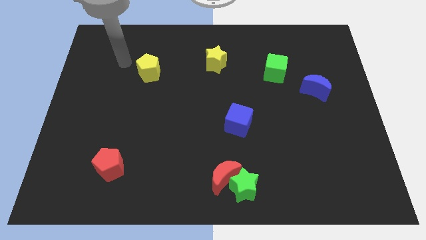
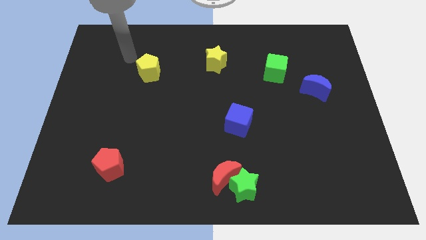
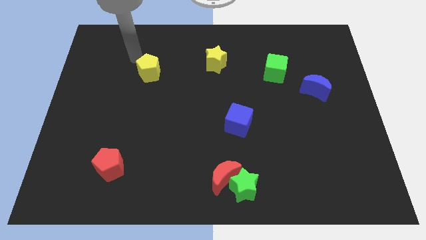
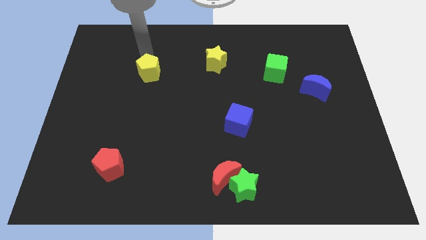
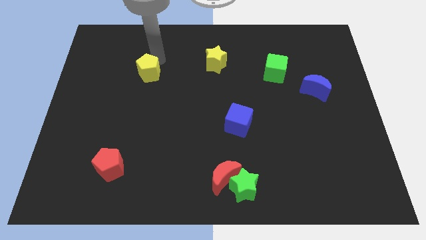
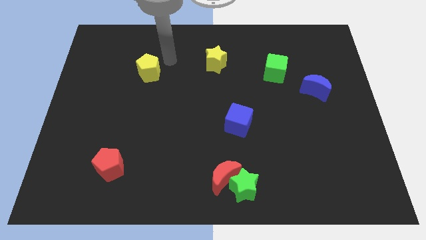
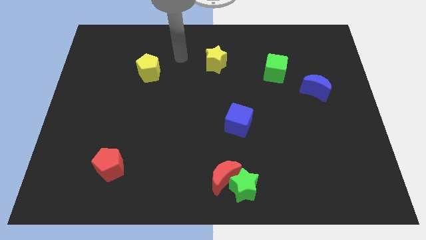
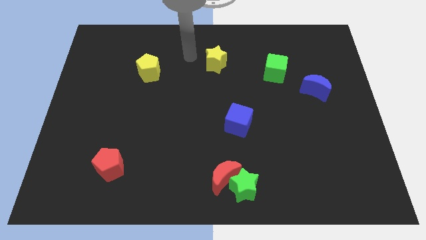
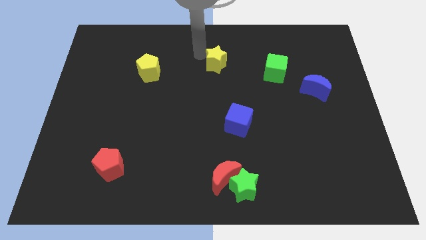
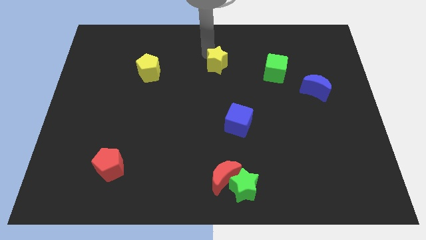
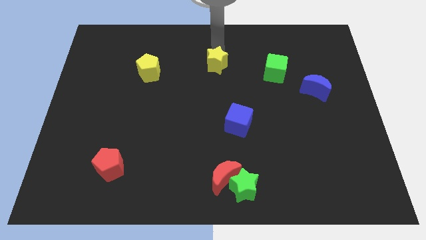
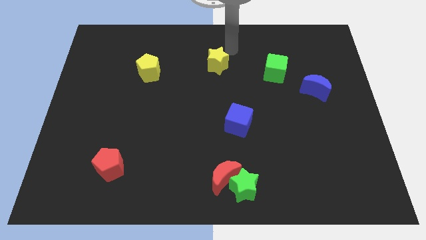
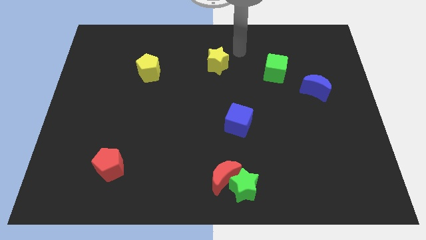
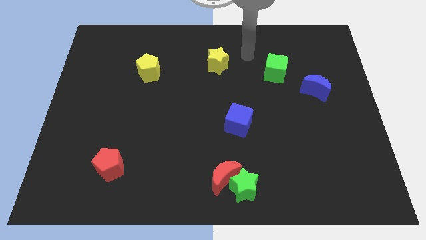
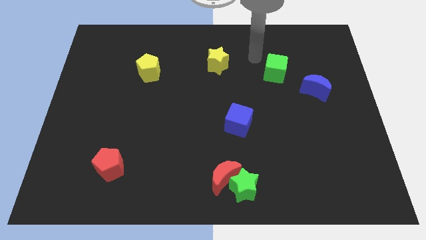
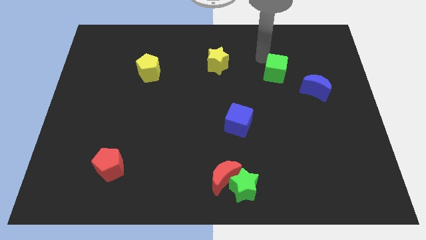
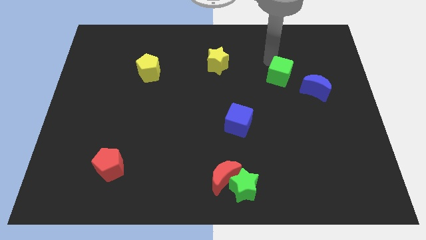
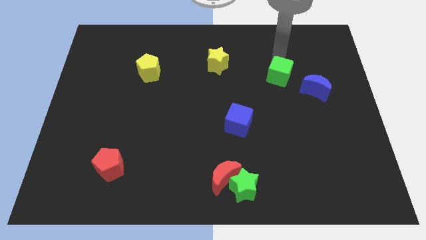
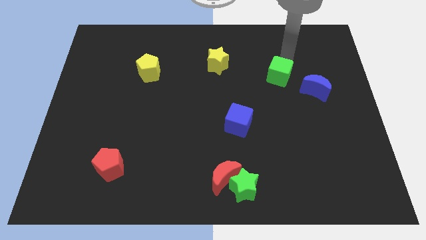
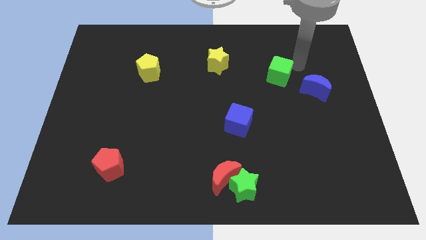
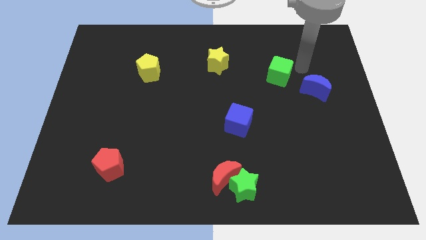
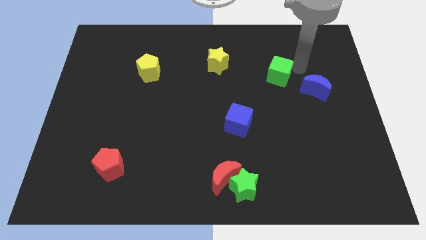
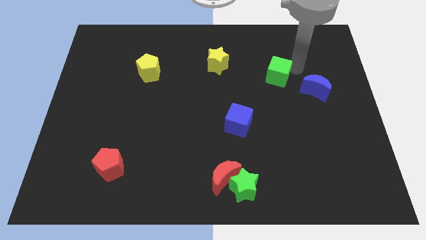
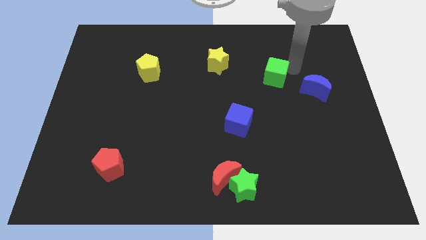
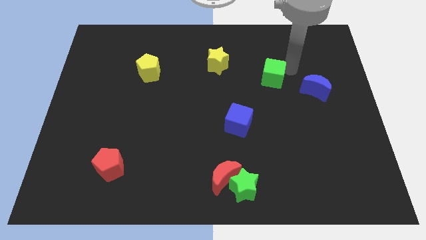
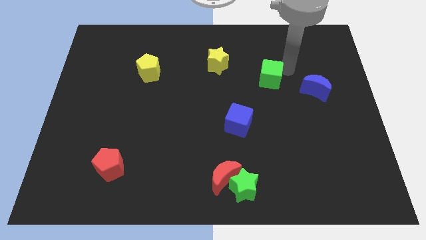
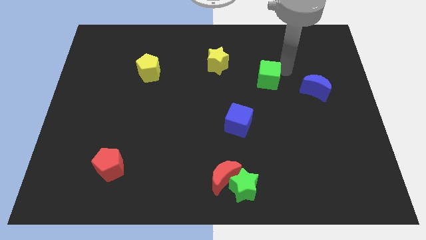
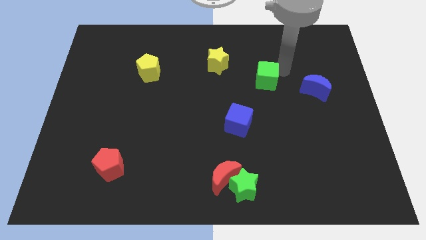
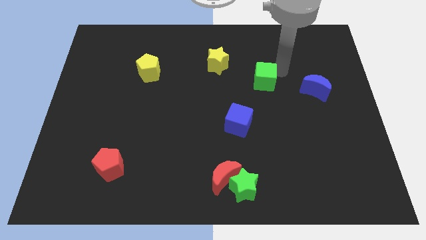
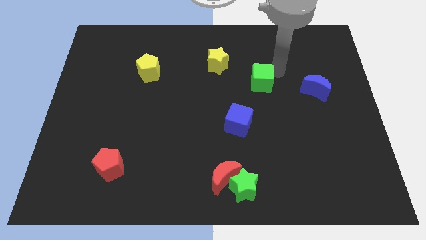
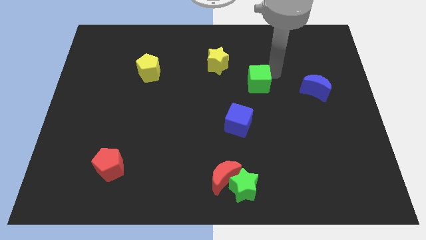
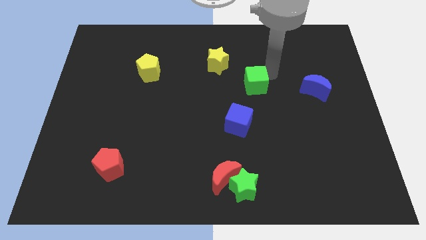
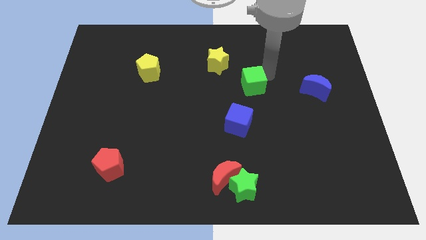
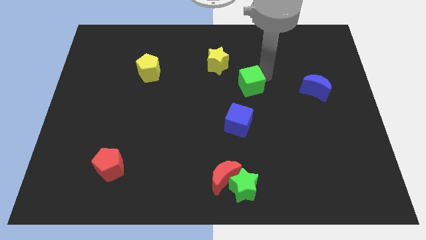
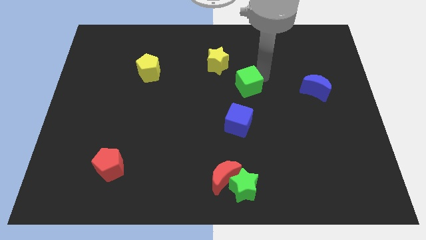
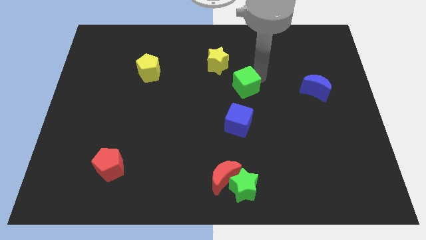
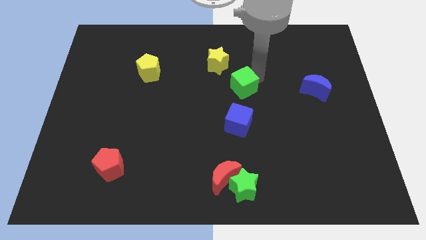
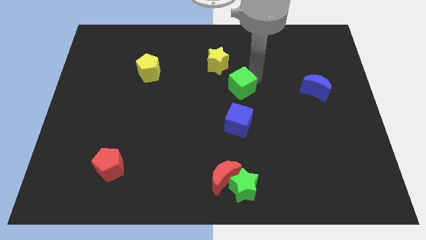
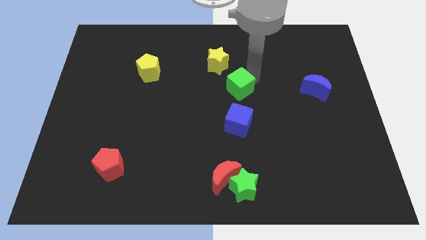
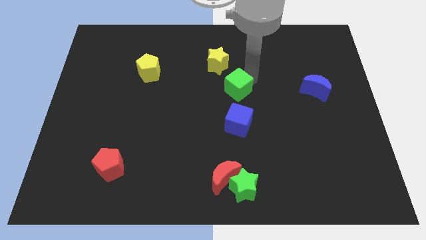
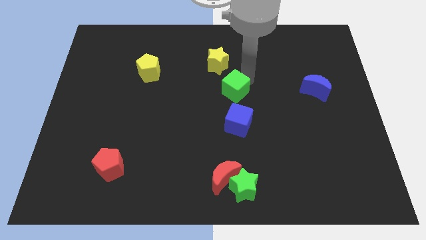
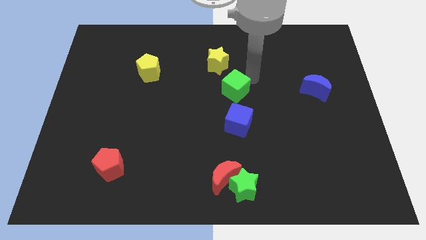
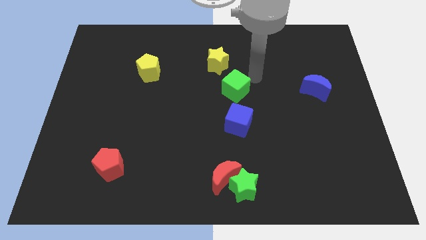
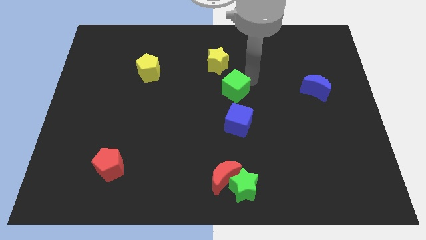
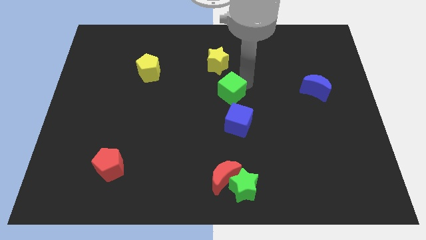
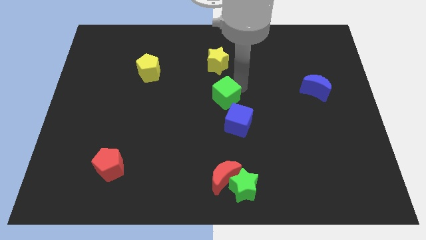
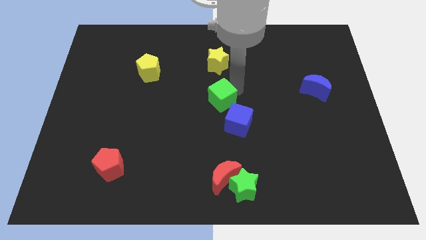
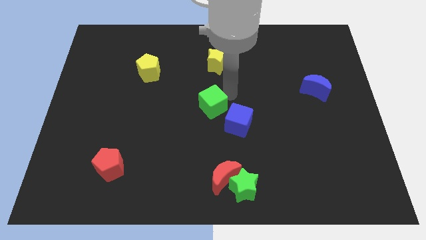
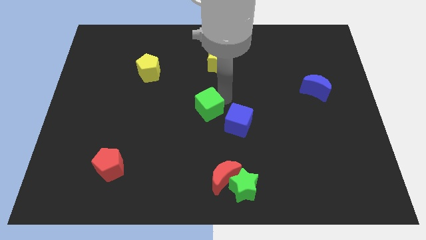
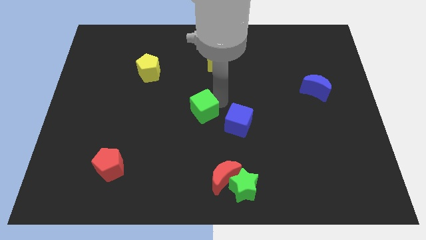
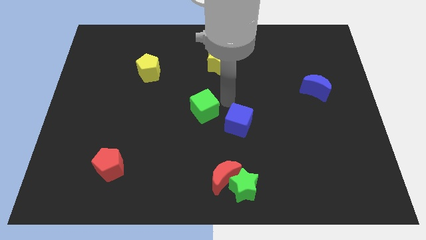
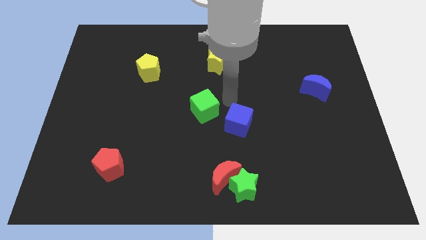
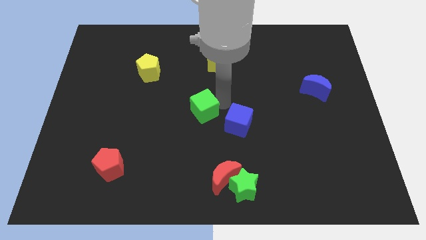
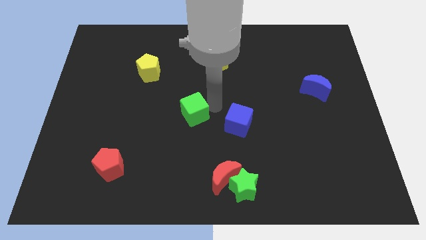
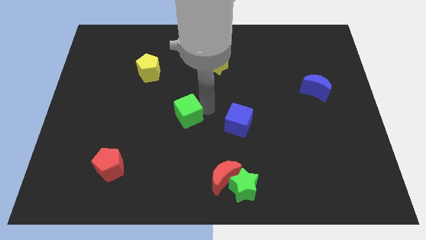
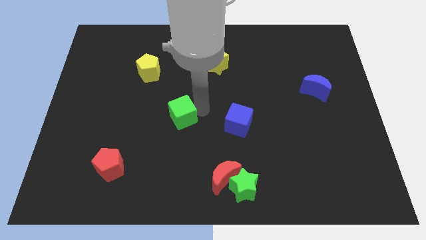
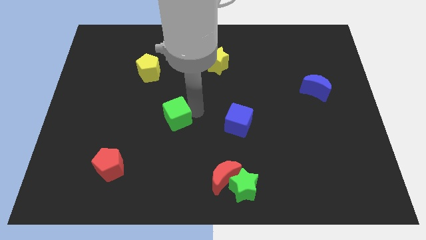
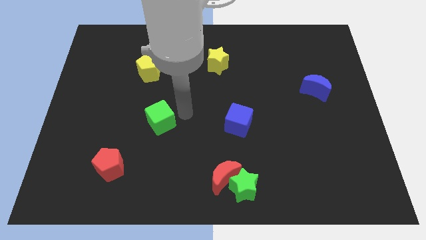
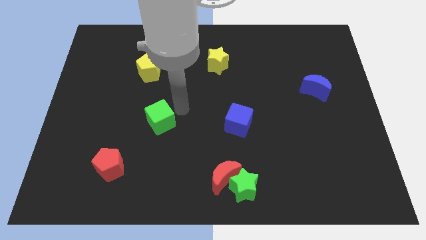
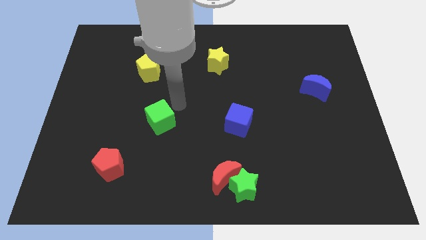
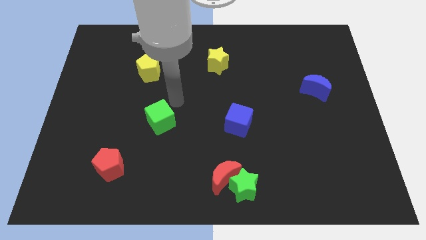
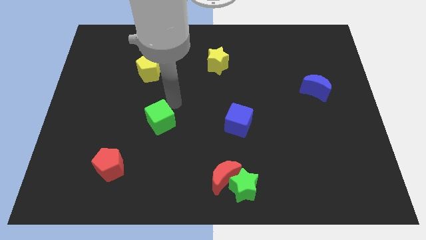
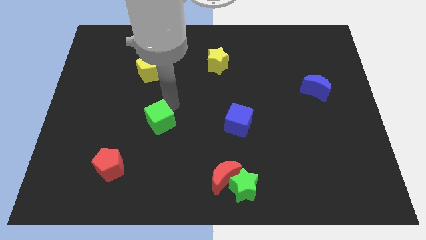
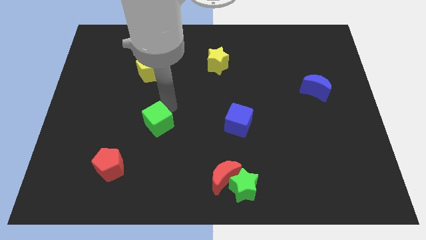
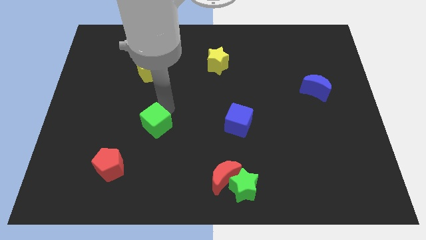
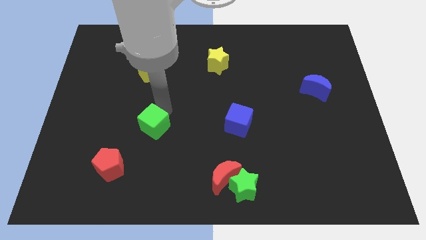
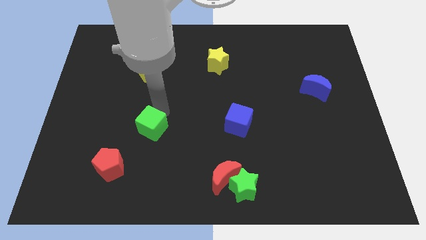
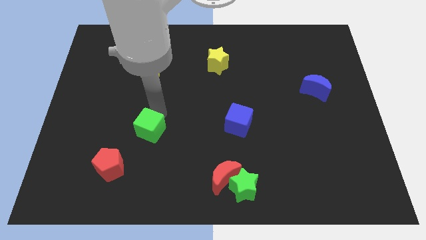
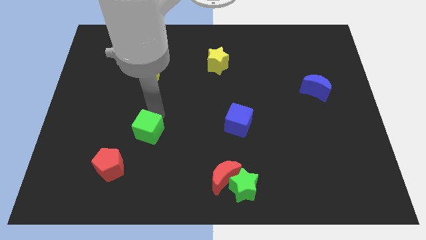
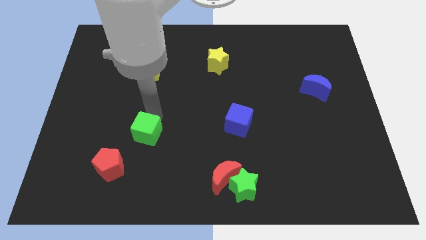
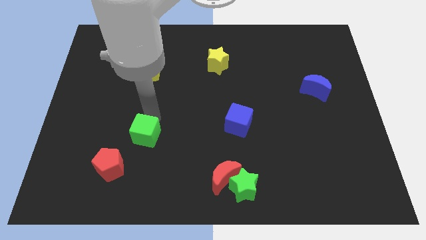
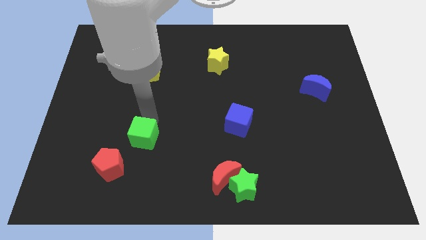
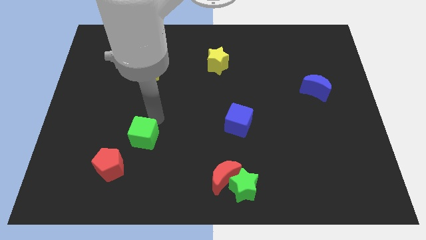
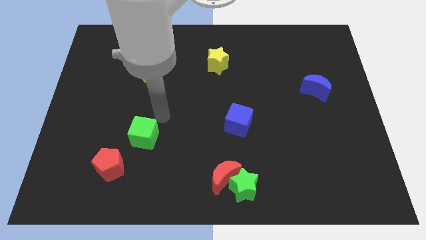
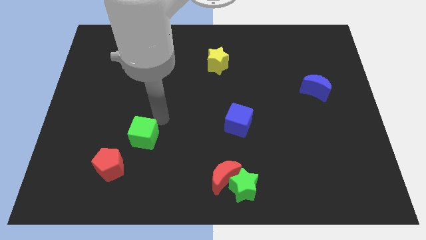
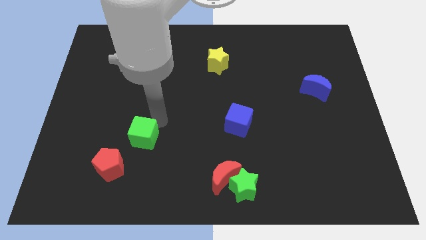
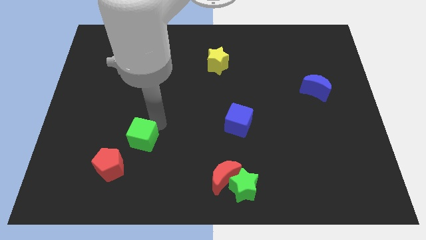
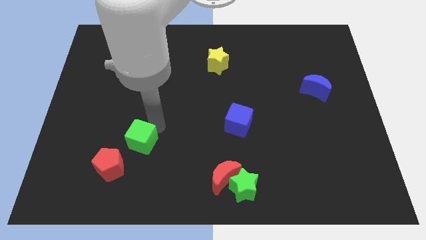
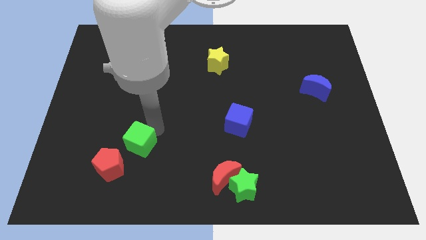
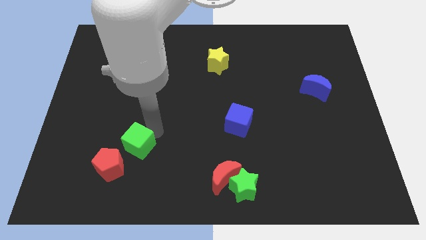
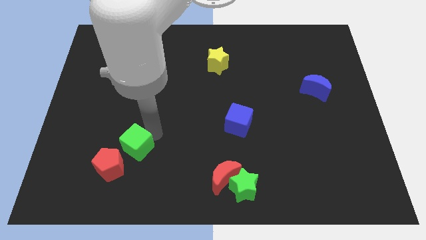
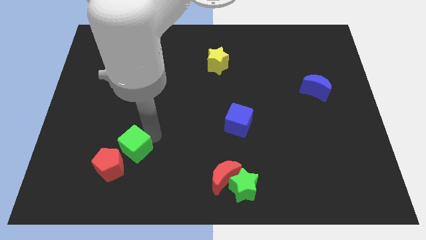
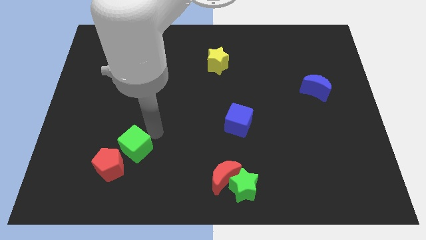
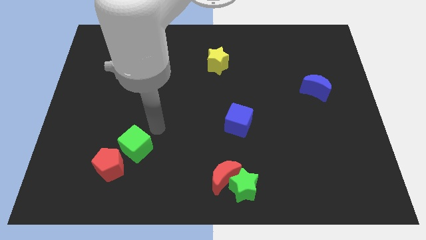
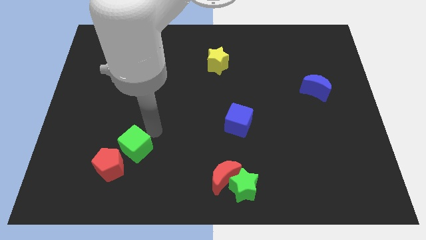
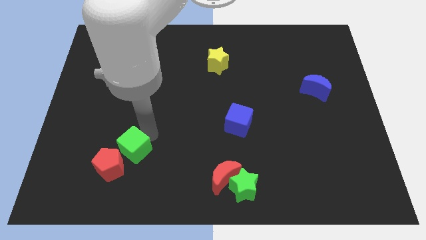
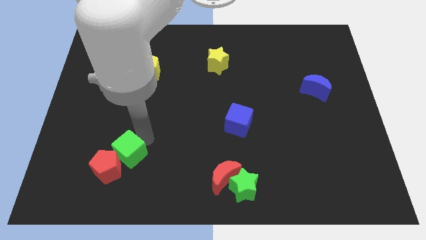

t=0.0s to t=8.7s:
move the green cube close to the red pentagon
